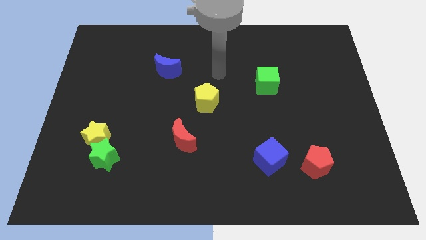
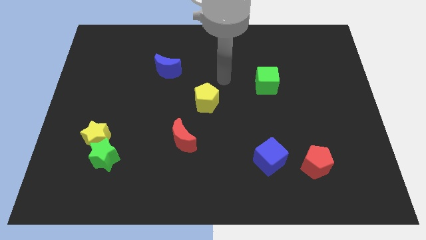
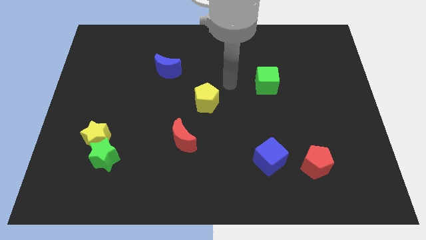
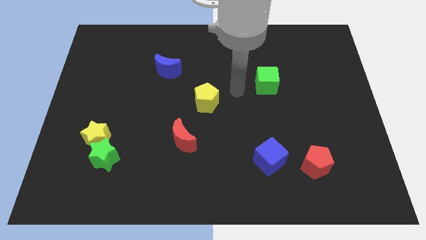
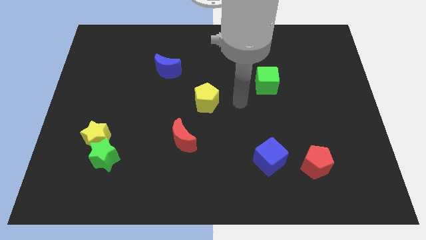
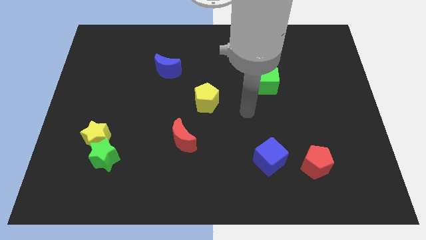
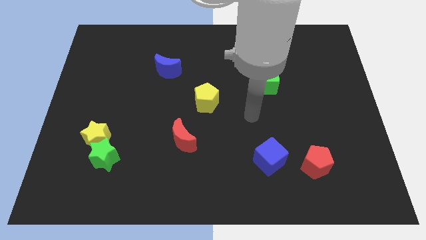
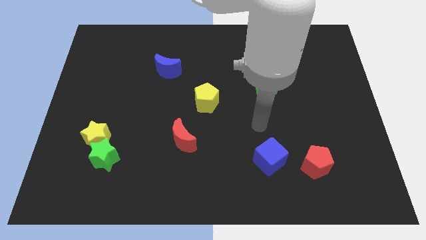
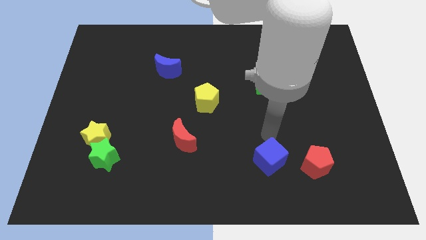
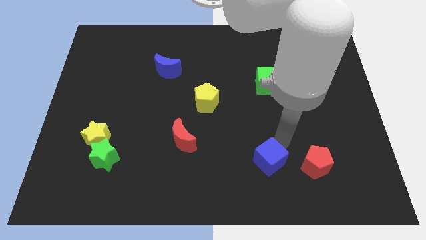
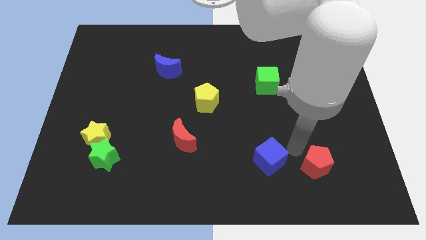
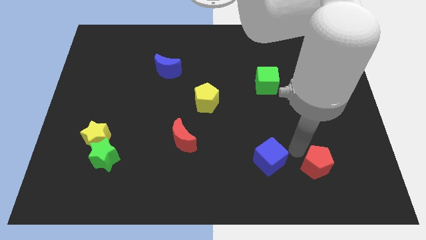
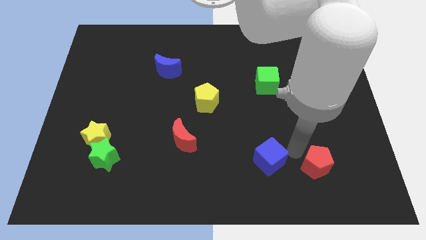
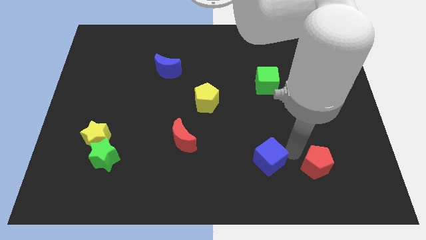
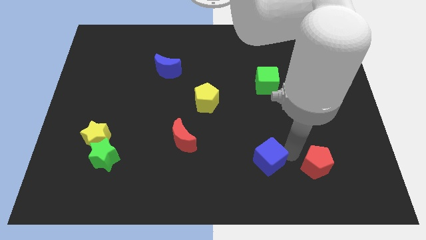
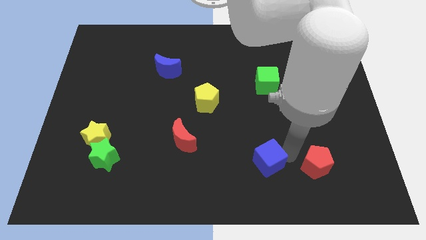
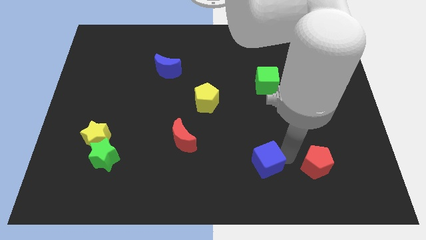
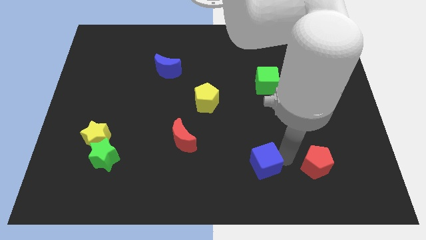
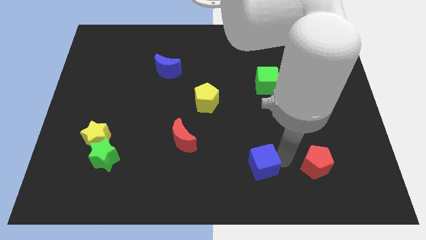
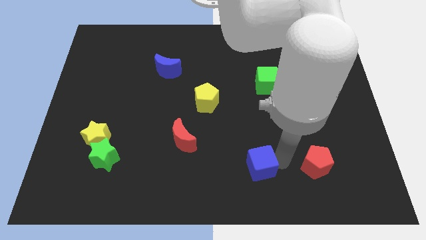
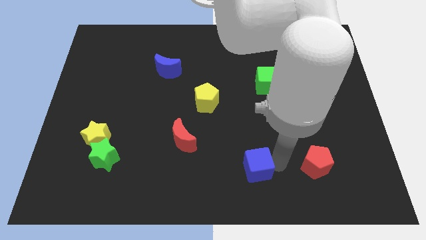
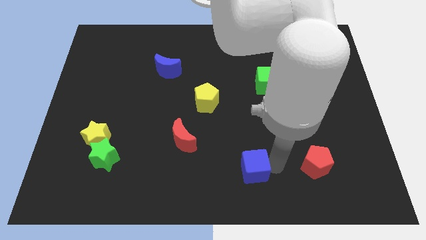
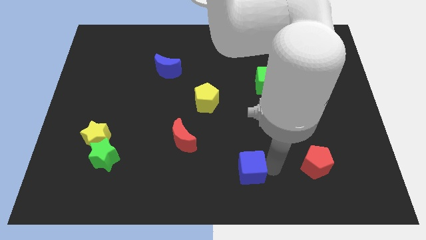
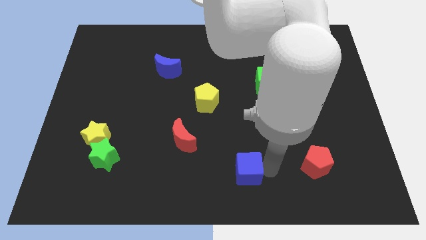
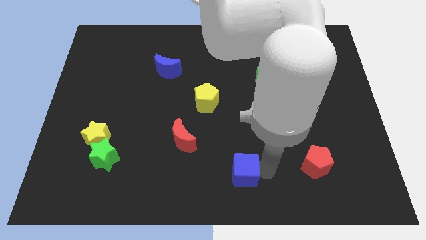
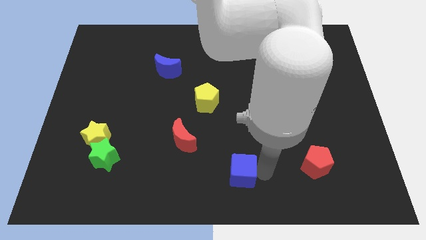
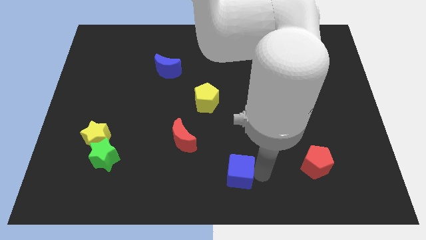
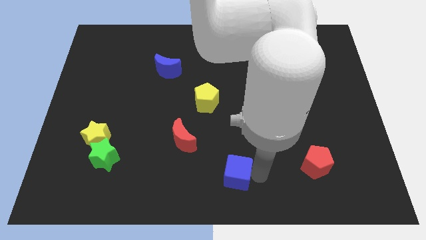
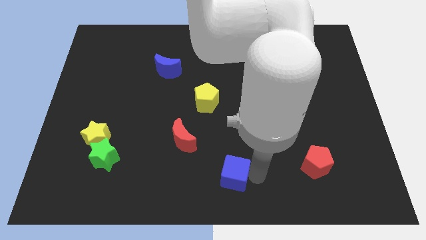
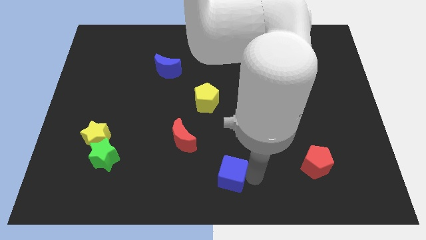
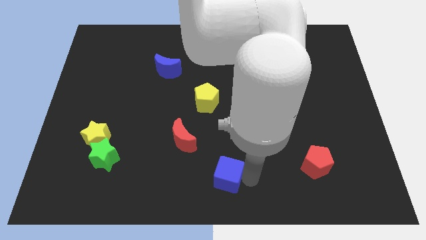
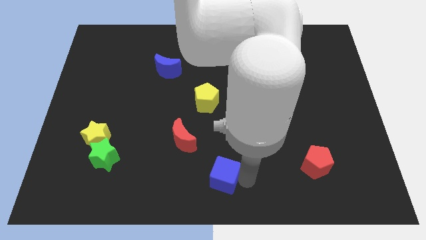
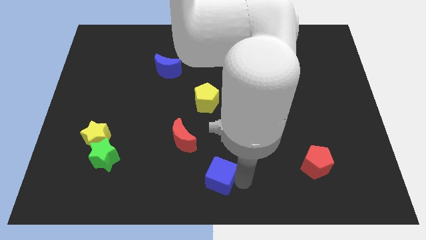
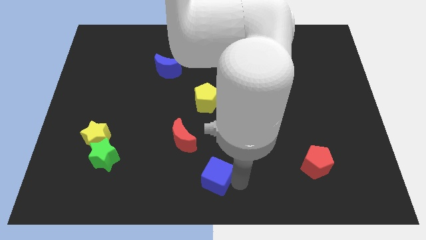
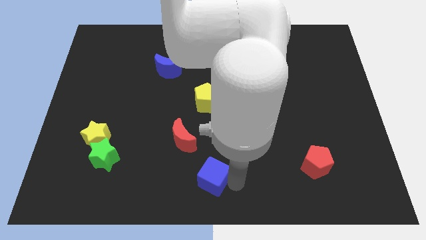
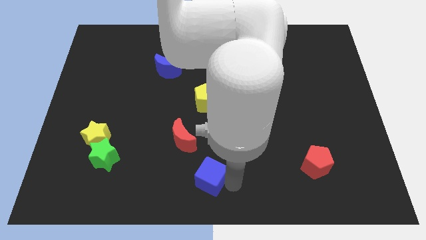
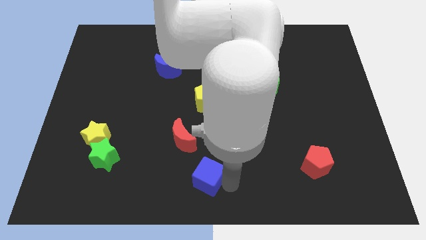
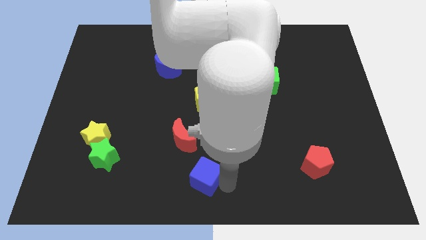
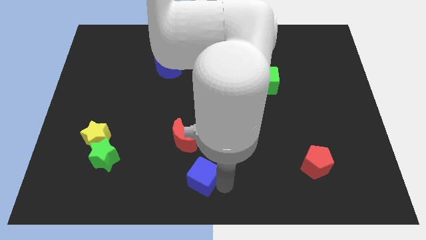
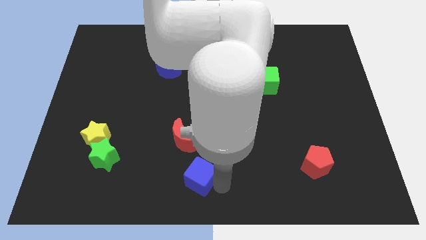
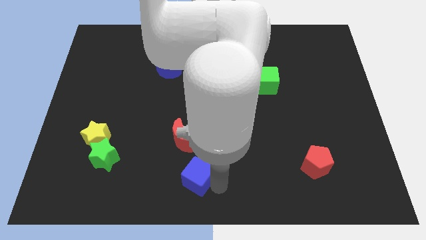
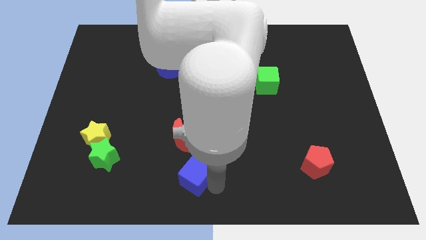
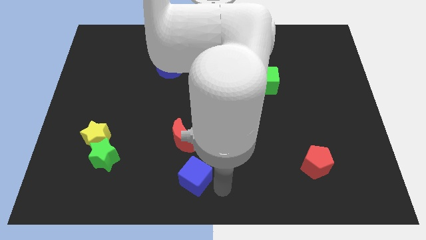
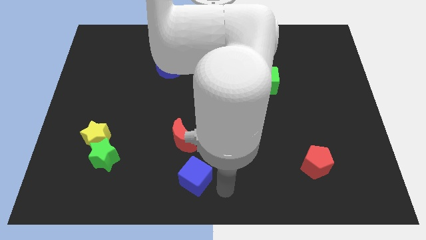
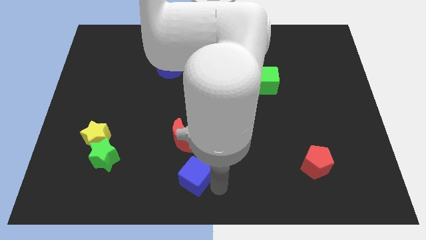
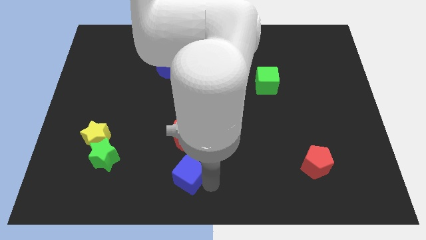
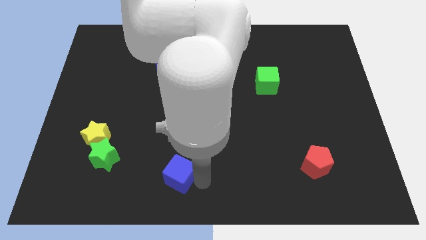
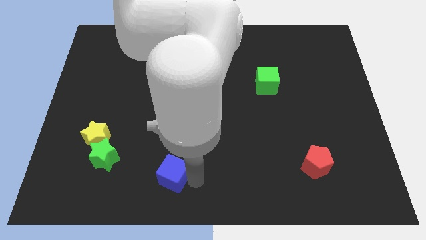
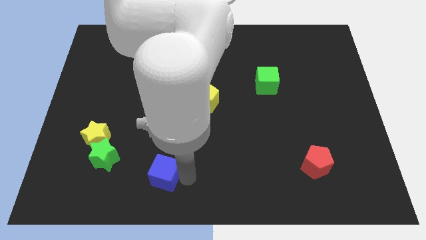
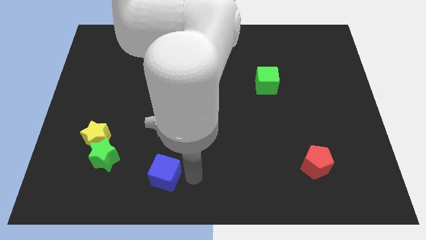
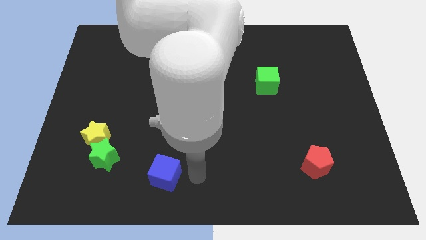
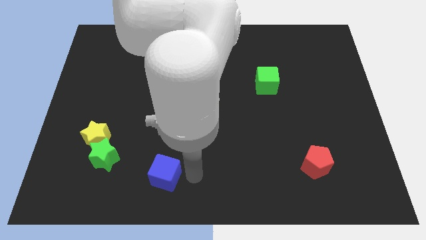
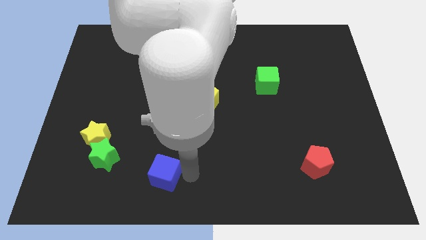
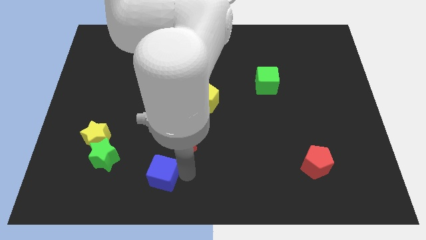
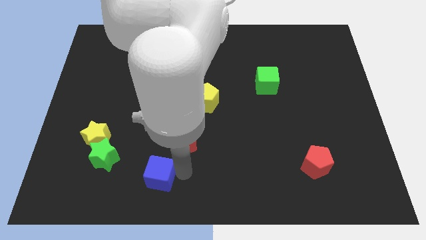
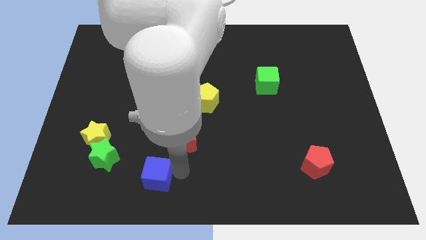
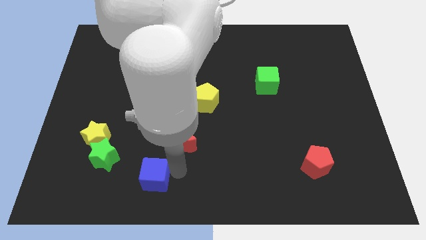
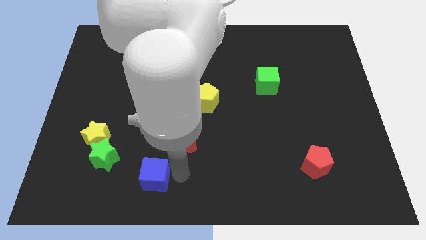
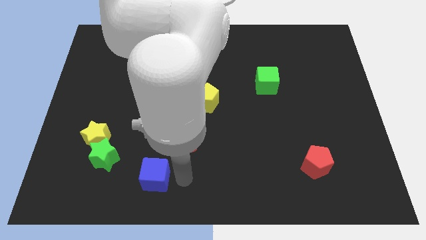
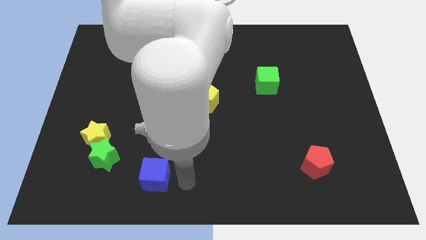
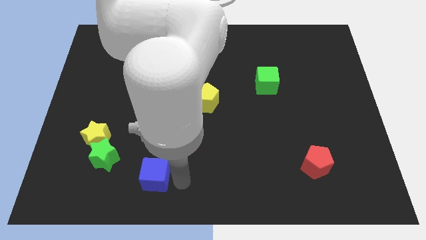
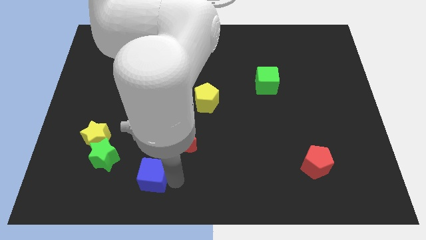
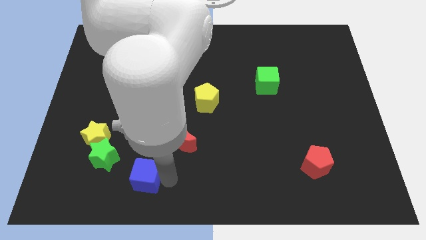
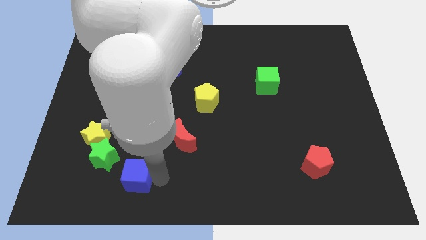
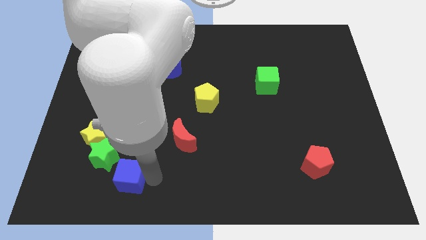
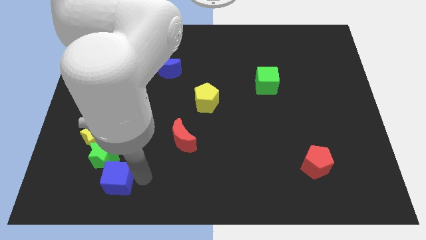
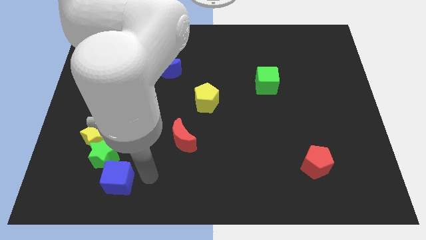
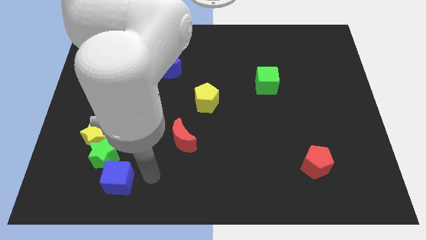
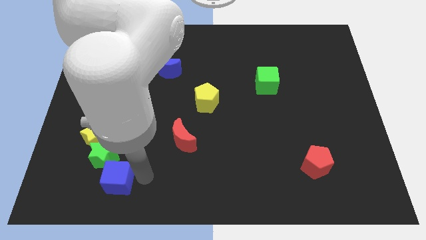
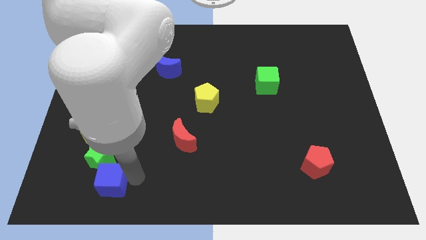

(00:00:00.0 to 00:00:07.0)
slide the blue cube below the yellow star
